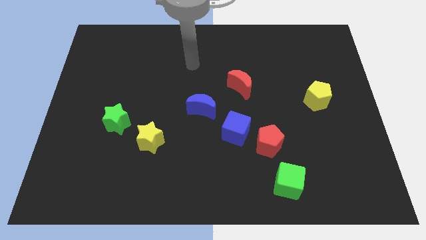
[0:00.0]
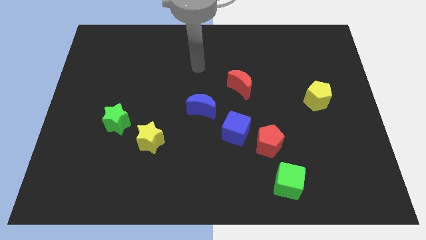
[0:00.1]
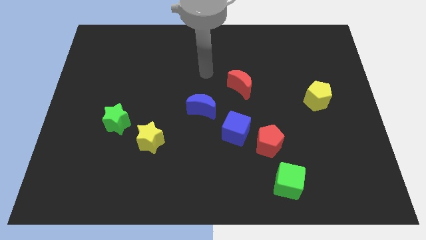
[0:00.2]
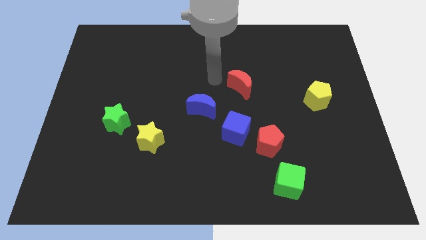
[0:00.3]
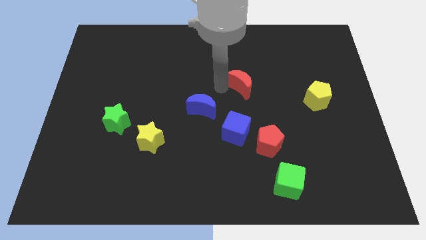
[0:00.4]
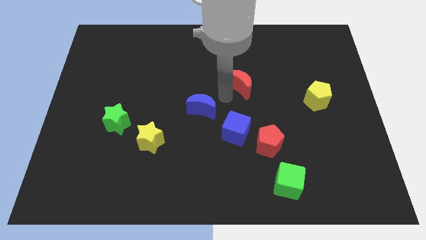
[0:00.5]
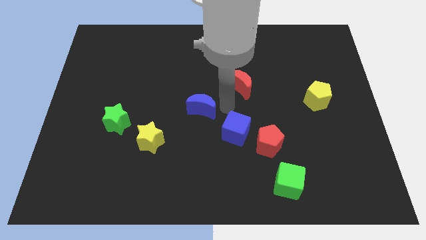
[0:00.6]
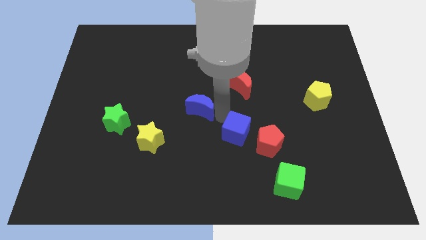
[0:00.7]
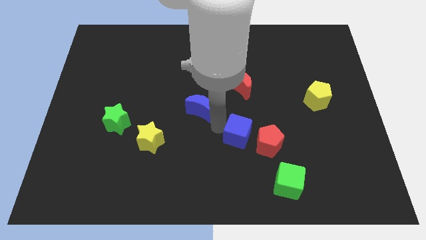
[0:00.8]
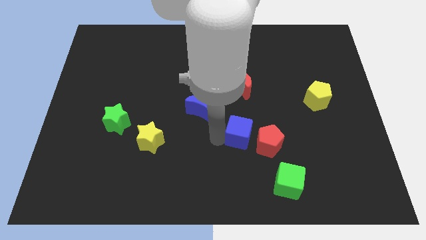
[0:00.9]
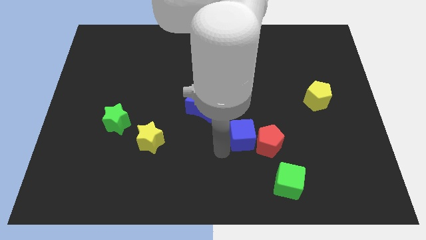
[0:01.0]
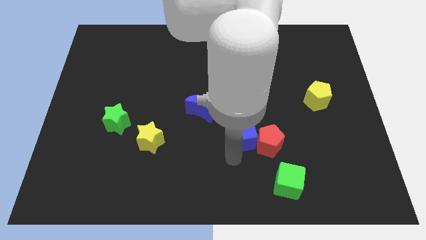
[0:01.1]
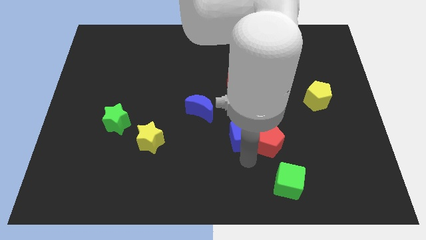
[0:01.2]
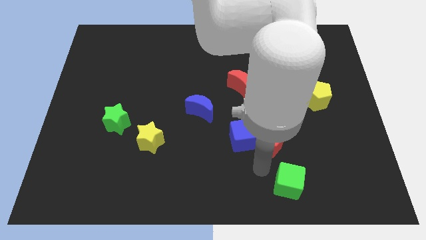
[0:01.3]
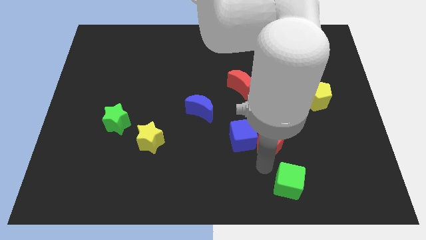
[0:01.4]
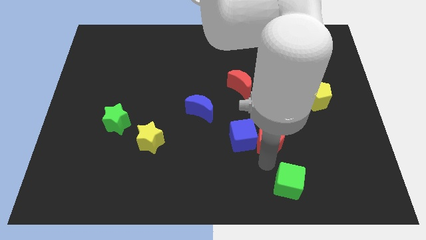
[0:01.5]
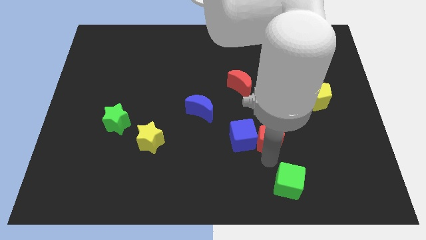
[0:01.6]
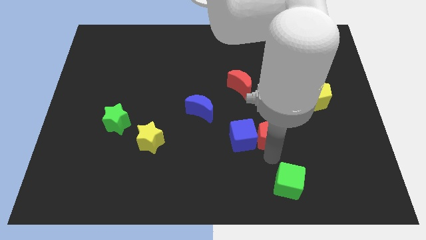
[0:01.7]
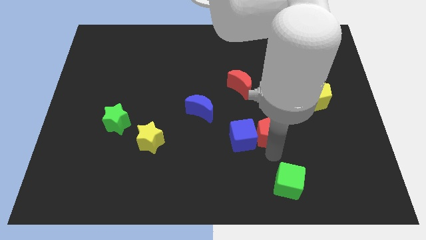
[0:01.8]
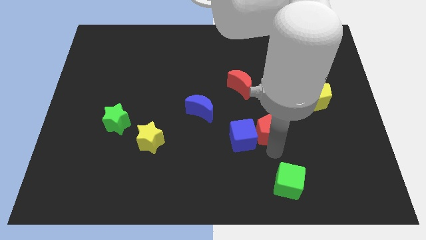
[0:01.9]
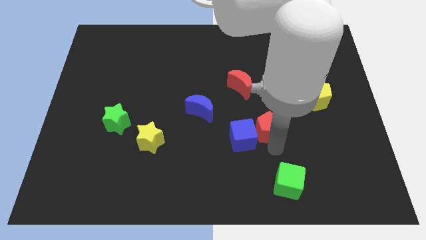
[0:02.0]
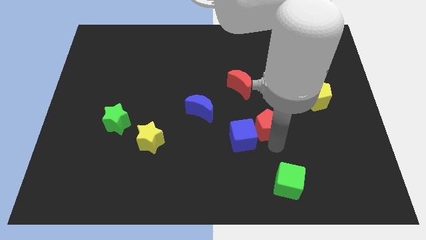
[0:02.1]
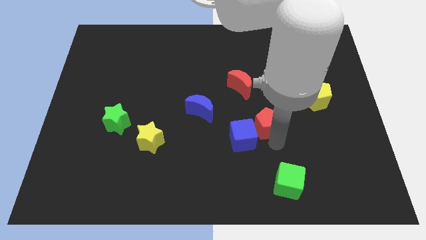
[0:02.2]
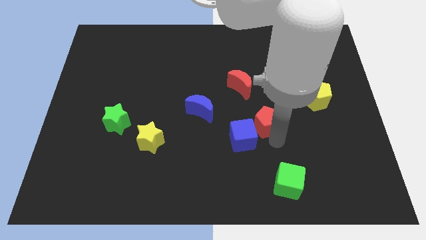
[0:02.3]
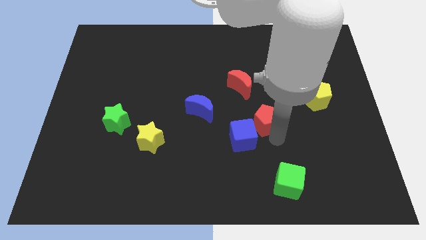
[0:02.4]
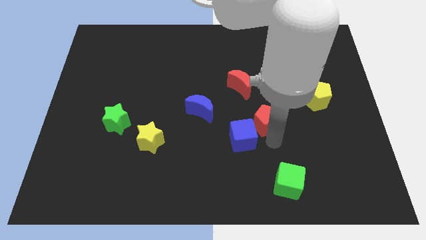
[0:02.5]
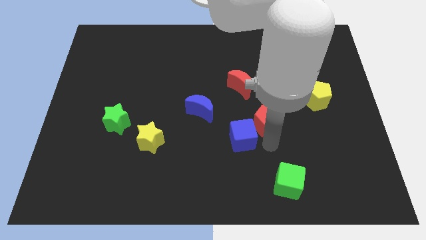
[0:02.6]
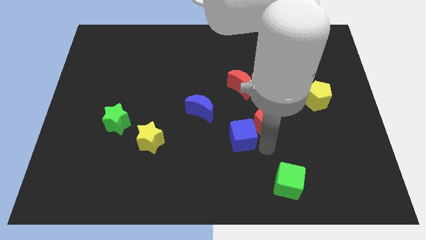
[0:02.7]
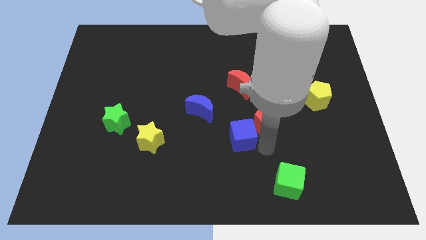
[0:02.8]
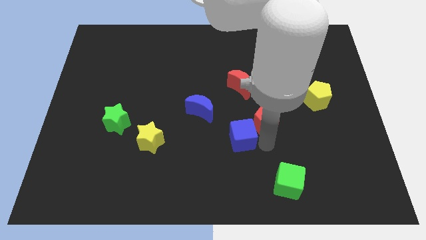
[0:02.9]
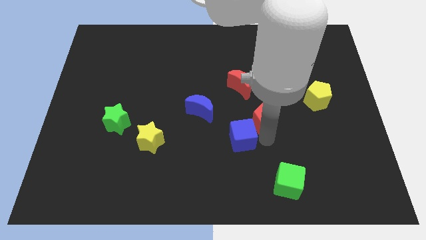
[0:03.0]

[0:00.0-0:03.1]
move the red pentagon away from the blue cube and green cube

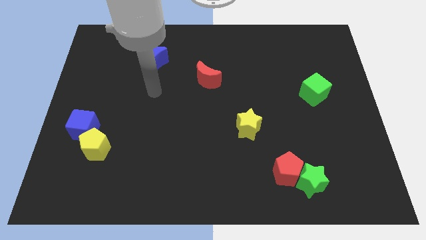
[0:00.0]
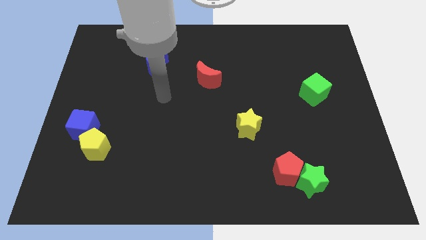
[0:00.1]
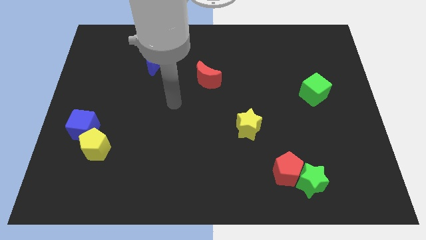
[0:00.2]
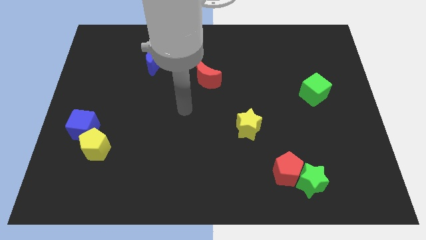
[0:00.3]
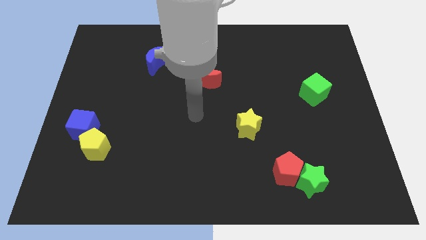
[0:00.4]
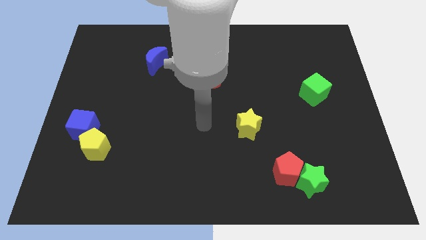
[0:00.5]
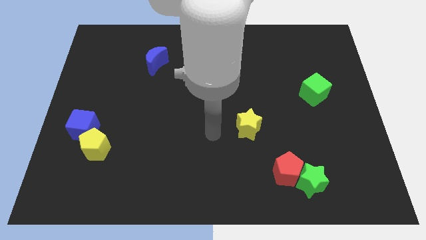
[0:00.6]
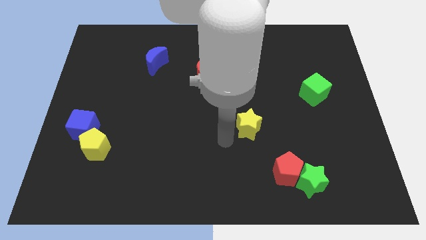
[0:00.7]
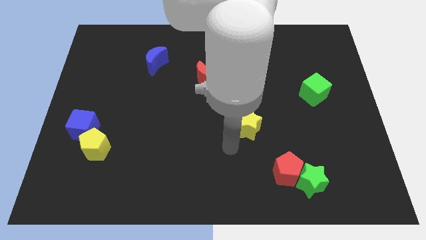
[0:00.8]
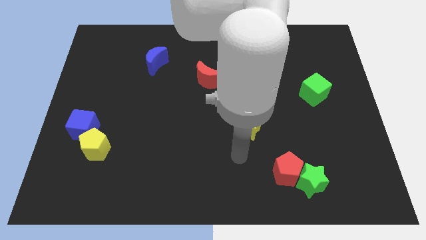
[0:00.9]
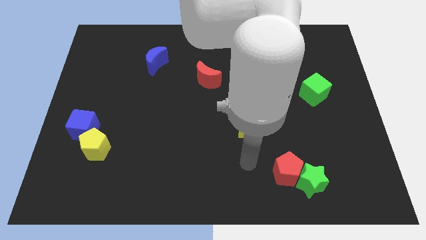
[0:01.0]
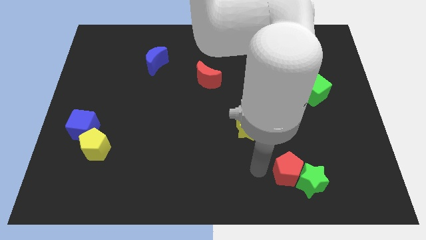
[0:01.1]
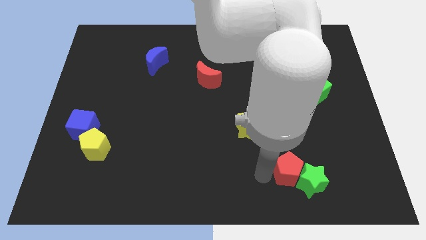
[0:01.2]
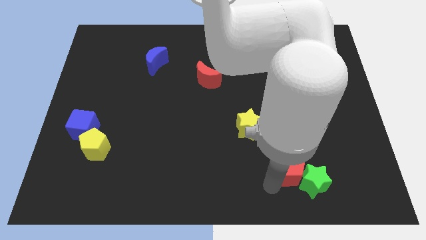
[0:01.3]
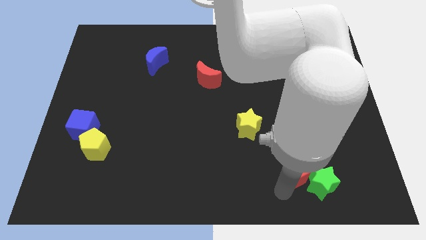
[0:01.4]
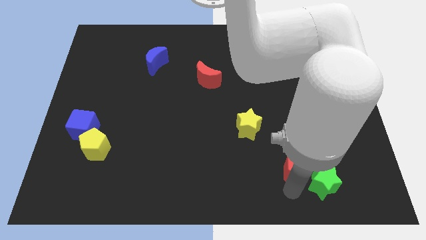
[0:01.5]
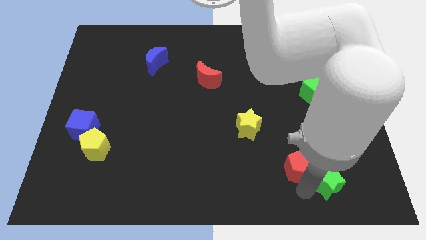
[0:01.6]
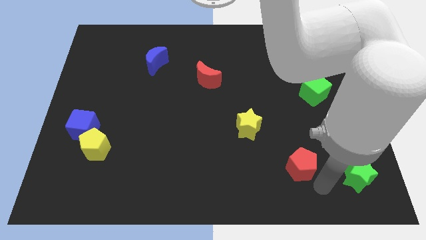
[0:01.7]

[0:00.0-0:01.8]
pull the red pentagon apart from the green star

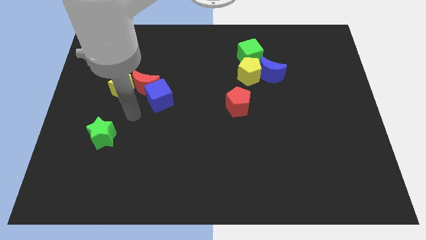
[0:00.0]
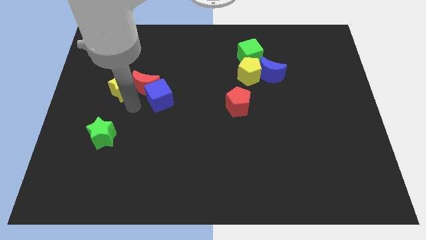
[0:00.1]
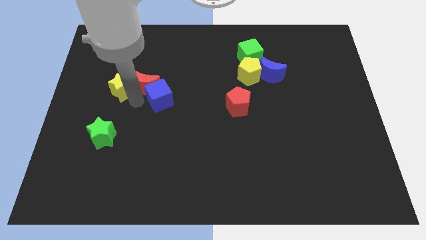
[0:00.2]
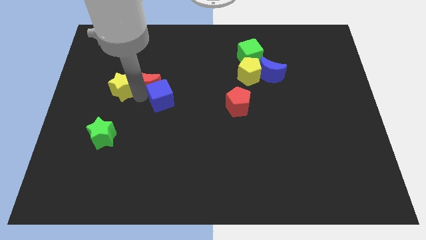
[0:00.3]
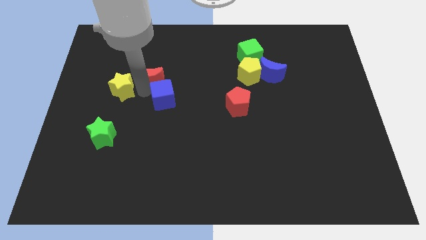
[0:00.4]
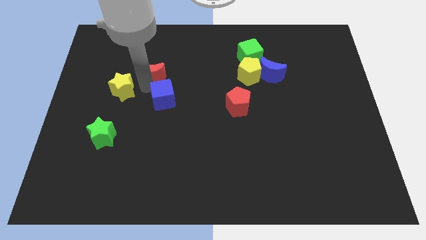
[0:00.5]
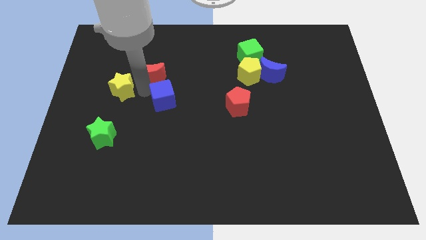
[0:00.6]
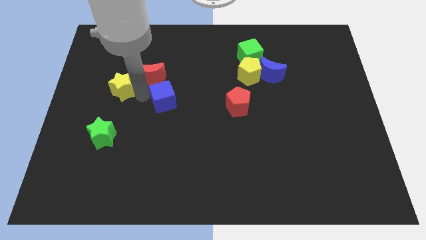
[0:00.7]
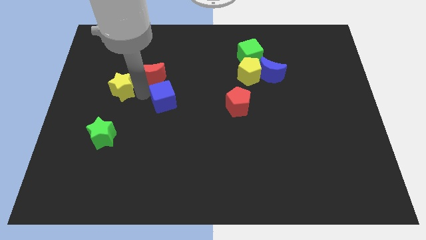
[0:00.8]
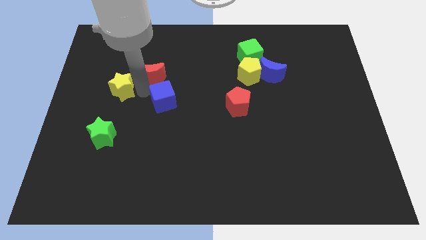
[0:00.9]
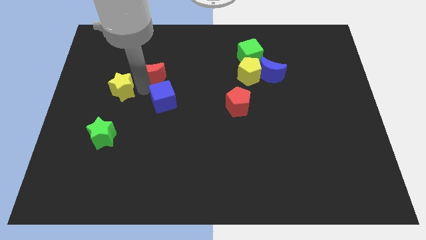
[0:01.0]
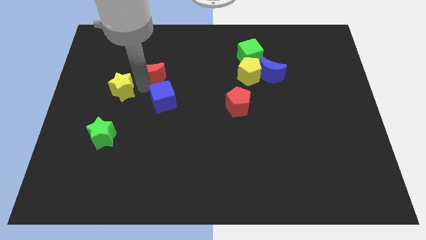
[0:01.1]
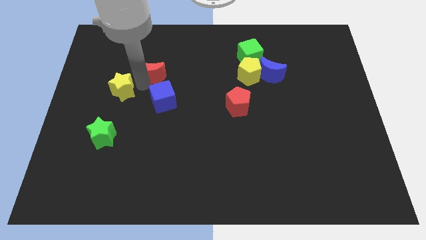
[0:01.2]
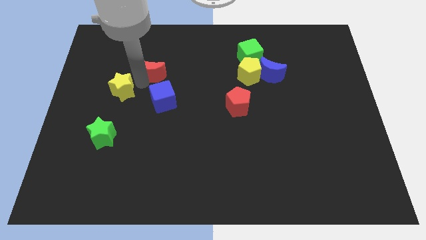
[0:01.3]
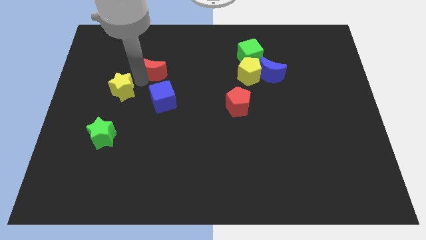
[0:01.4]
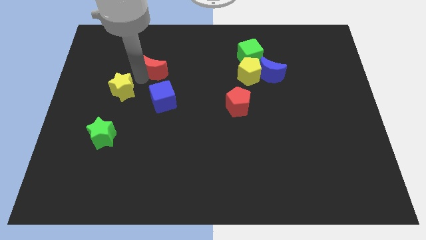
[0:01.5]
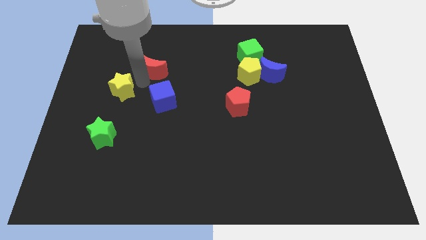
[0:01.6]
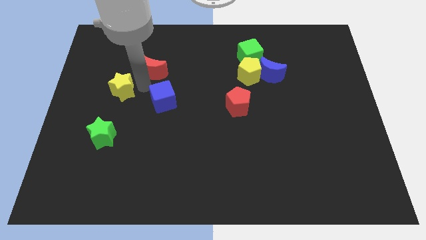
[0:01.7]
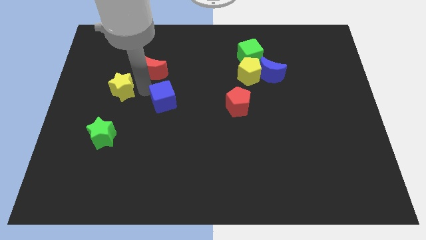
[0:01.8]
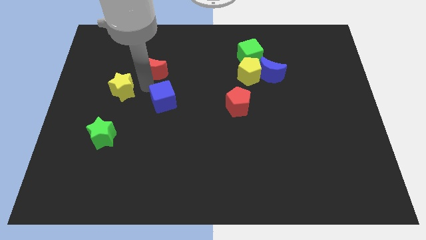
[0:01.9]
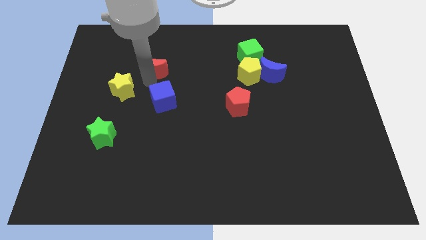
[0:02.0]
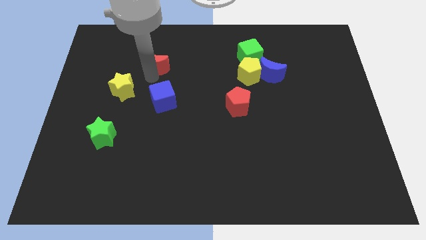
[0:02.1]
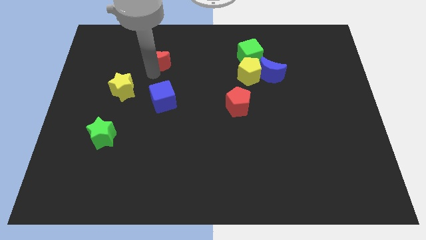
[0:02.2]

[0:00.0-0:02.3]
pull the red moon apart from the blue cube and yellow star

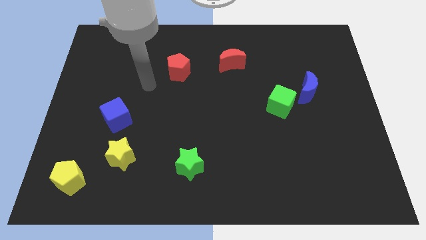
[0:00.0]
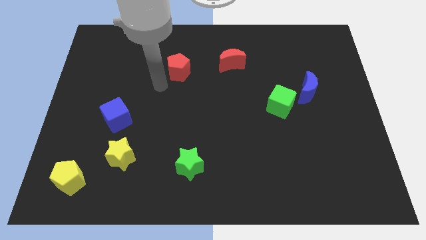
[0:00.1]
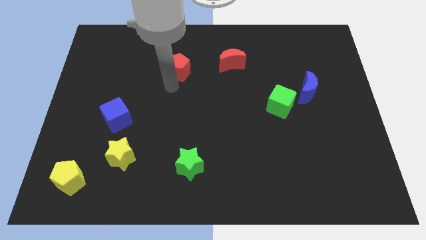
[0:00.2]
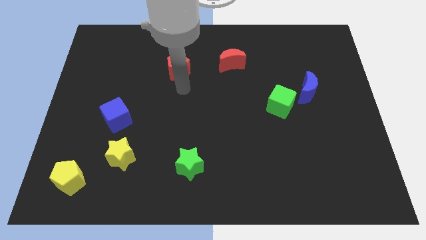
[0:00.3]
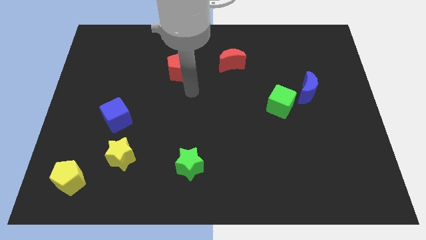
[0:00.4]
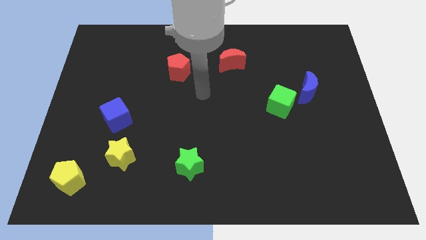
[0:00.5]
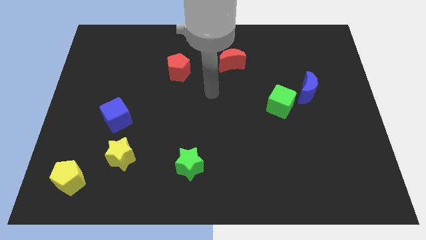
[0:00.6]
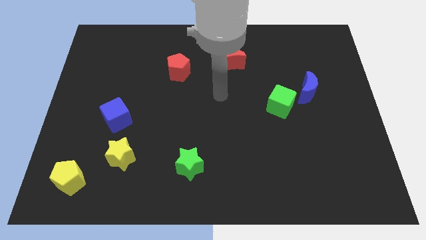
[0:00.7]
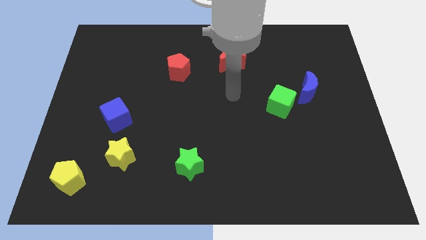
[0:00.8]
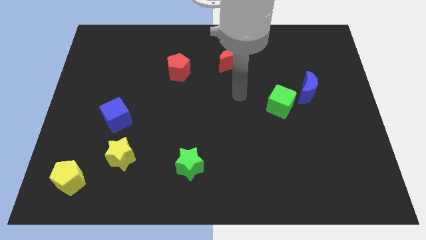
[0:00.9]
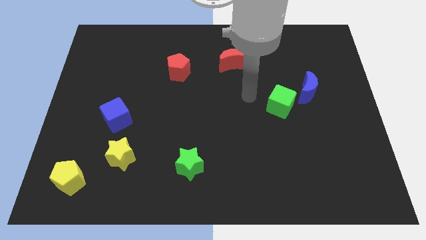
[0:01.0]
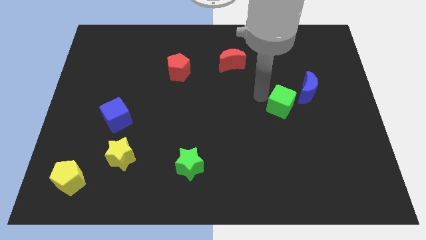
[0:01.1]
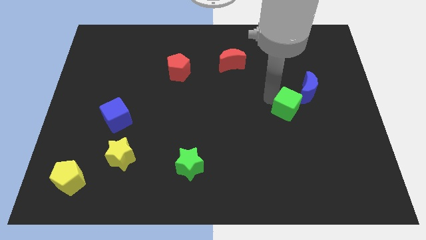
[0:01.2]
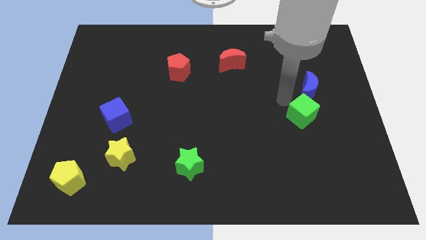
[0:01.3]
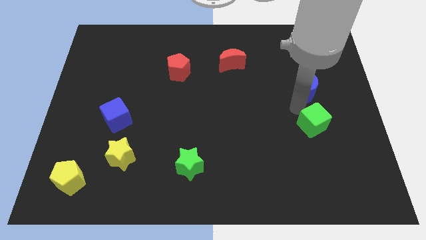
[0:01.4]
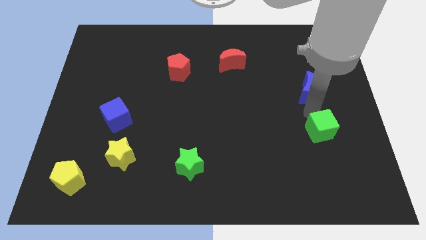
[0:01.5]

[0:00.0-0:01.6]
separate the blue moon from the green cube

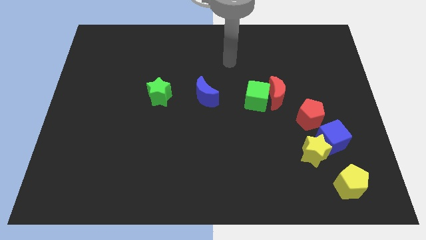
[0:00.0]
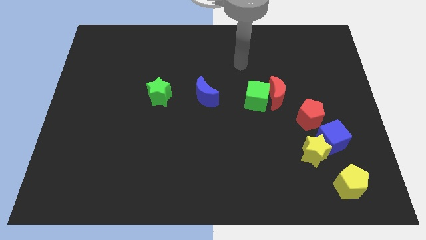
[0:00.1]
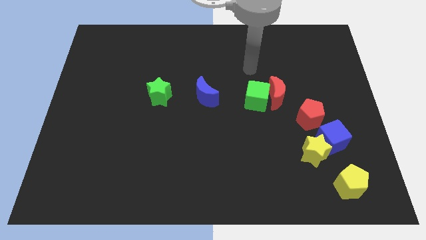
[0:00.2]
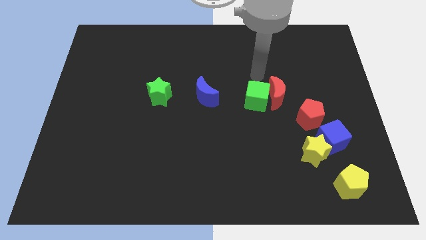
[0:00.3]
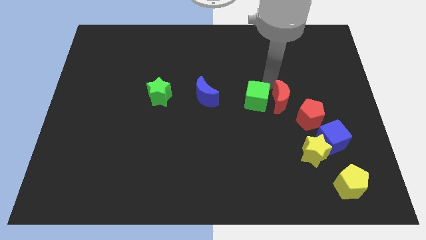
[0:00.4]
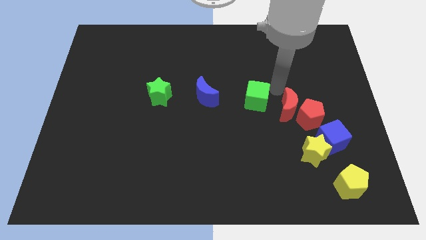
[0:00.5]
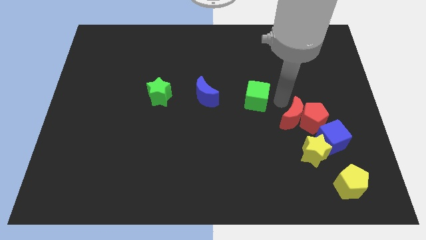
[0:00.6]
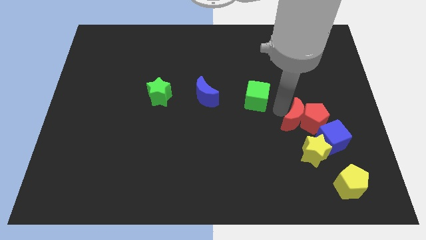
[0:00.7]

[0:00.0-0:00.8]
pull the green cube apart from the red moon
